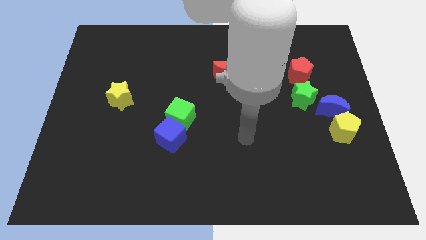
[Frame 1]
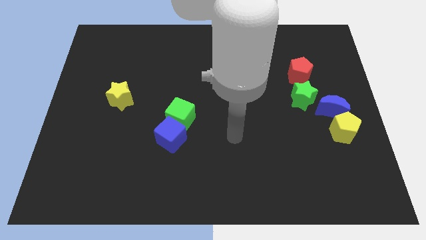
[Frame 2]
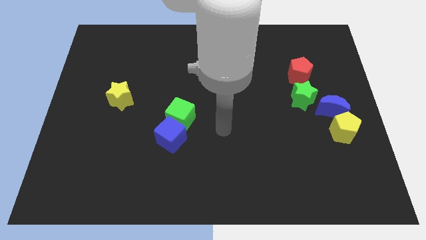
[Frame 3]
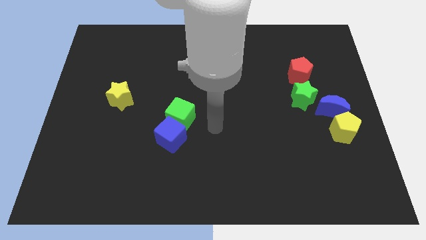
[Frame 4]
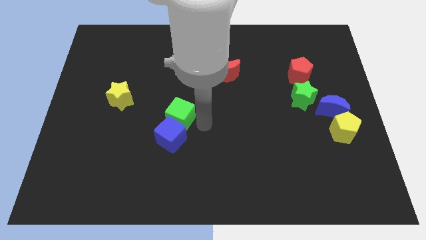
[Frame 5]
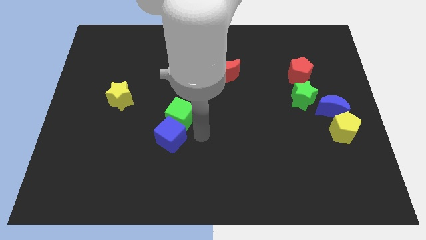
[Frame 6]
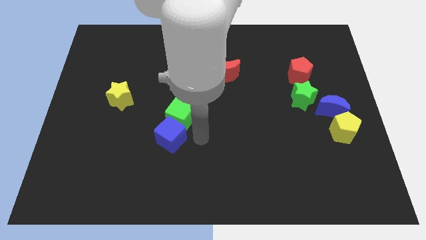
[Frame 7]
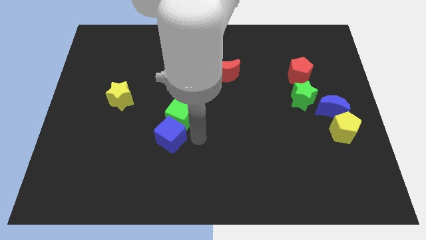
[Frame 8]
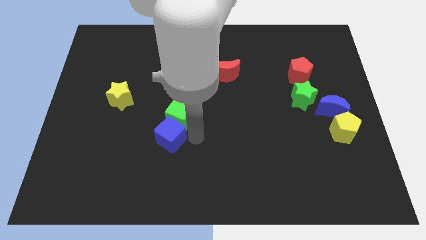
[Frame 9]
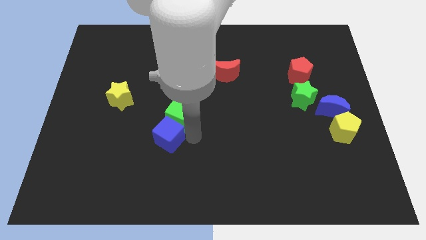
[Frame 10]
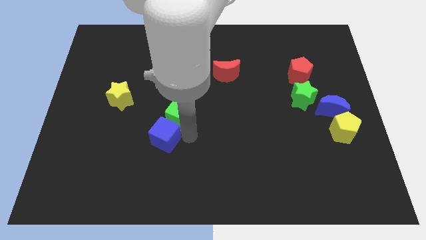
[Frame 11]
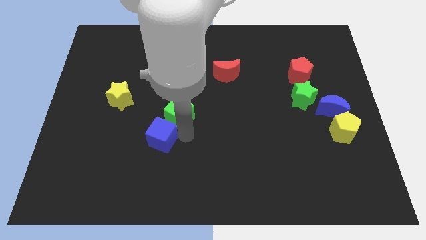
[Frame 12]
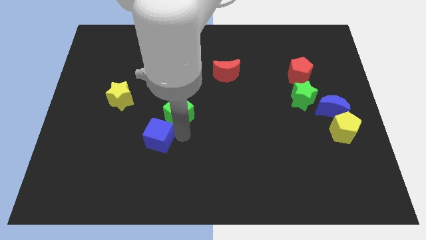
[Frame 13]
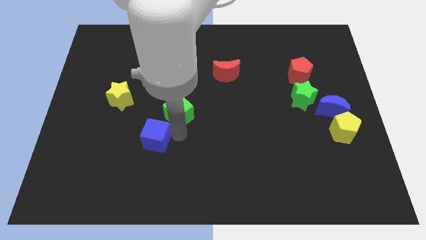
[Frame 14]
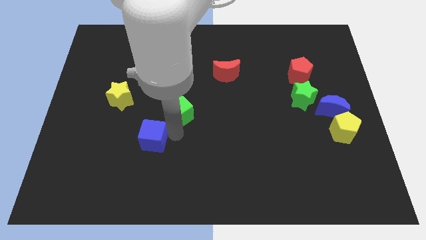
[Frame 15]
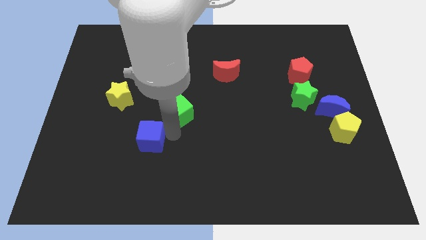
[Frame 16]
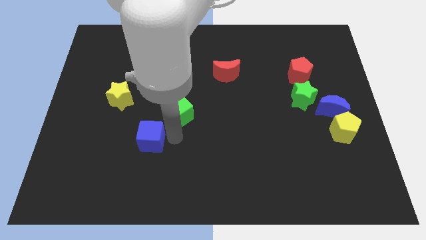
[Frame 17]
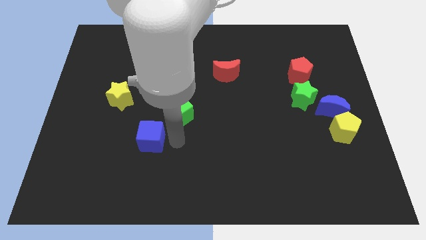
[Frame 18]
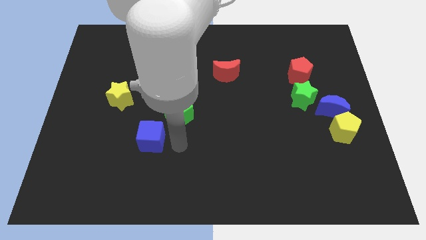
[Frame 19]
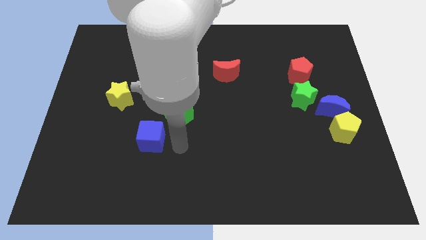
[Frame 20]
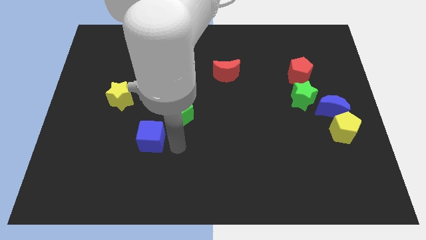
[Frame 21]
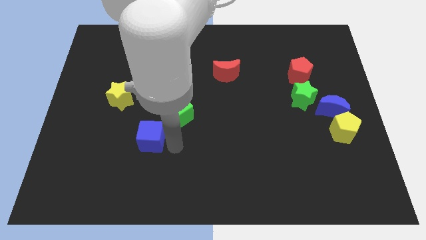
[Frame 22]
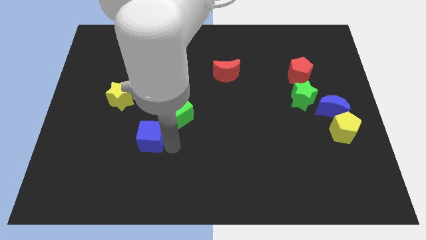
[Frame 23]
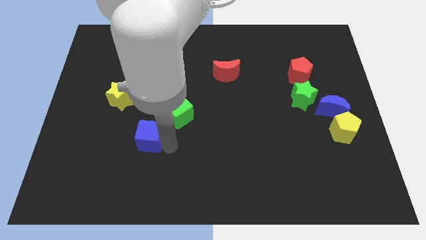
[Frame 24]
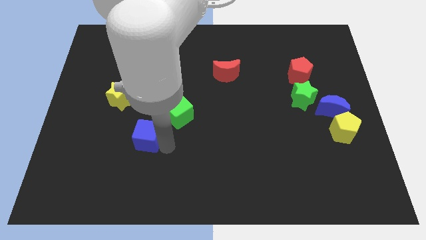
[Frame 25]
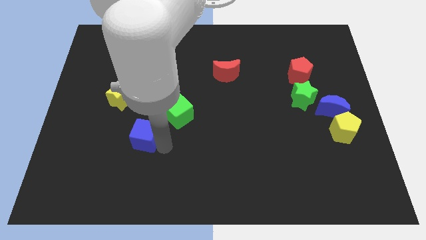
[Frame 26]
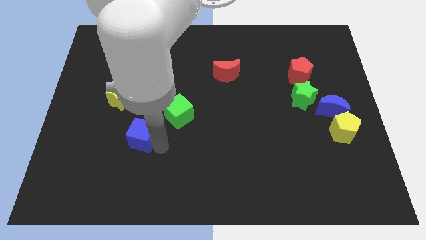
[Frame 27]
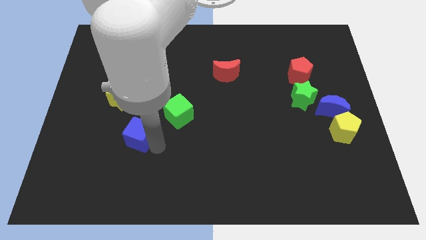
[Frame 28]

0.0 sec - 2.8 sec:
slide the blue cube a little bit to the left

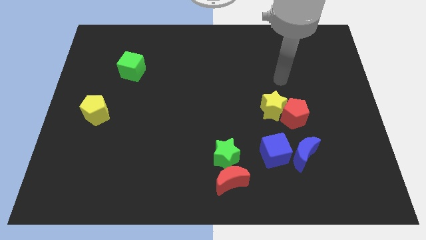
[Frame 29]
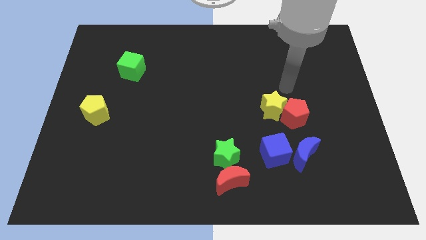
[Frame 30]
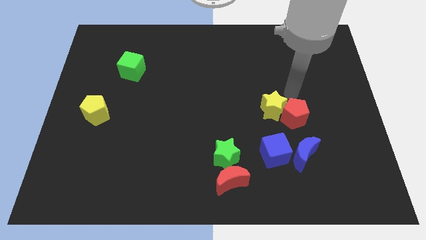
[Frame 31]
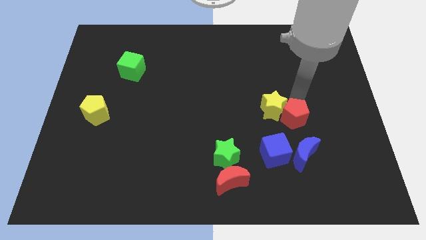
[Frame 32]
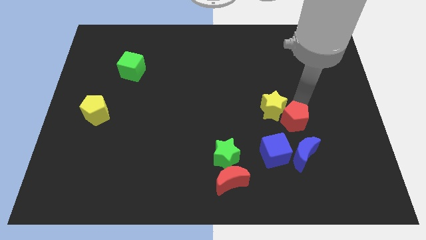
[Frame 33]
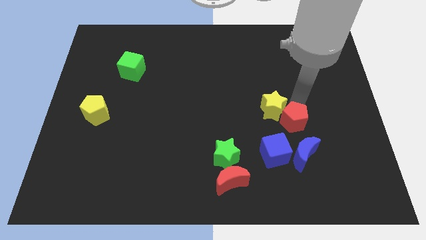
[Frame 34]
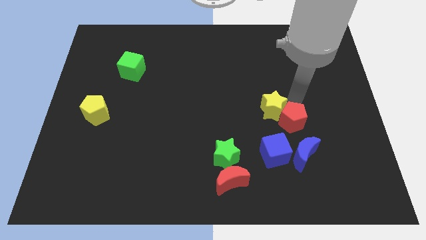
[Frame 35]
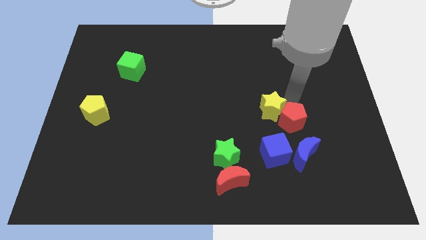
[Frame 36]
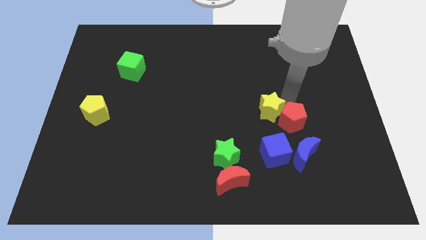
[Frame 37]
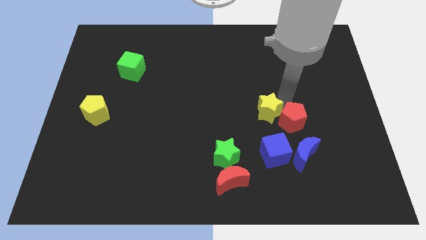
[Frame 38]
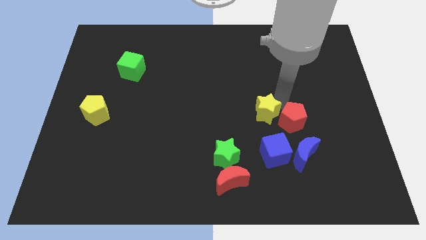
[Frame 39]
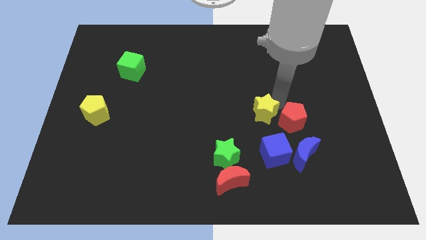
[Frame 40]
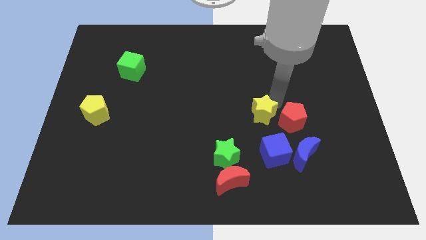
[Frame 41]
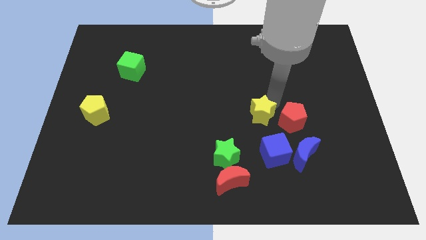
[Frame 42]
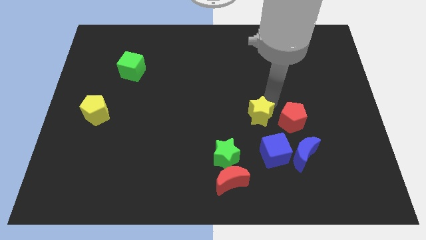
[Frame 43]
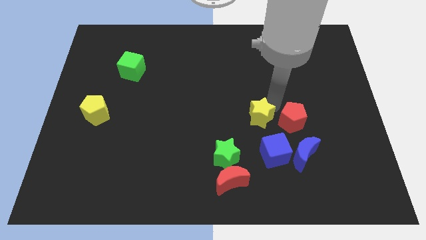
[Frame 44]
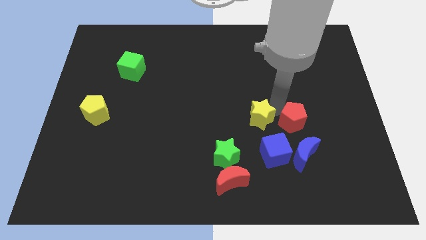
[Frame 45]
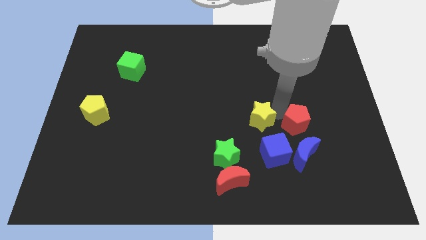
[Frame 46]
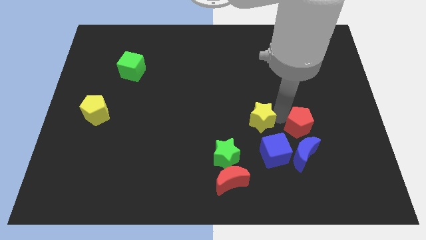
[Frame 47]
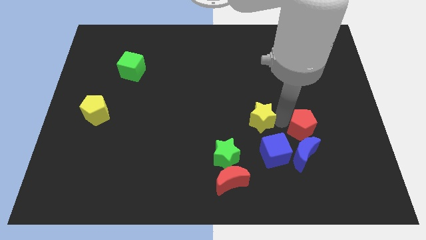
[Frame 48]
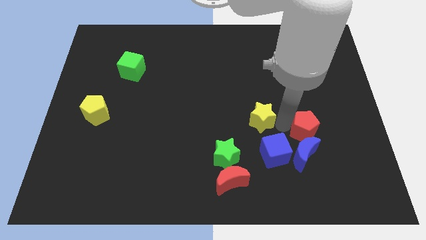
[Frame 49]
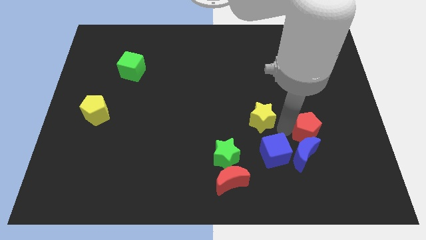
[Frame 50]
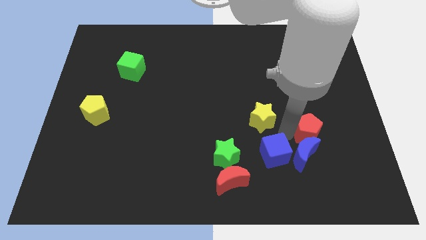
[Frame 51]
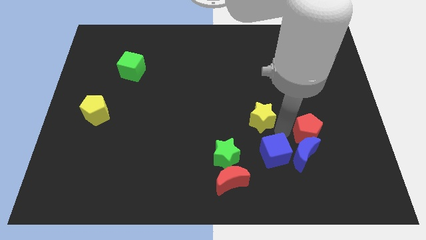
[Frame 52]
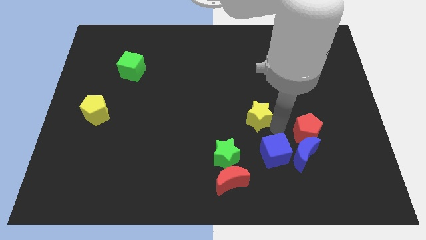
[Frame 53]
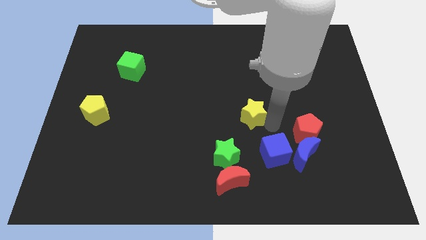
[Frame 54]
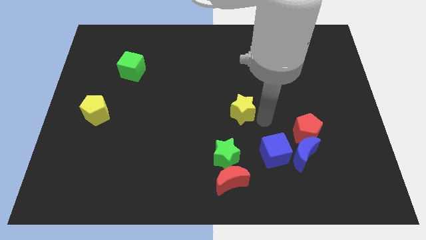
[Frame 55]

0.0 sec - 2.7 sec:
move the yellow star a little to the left

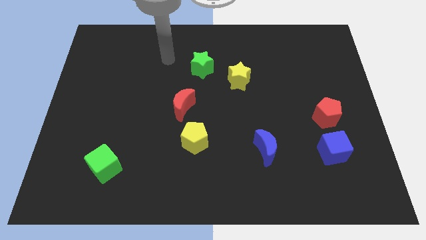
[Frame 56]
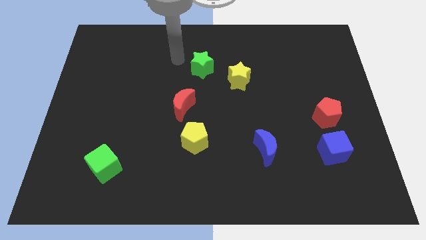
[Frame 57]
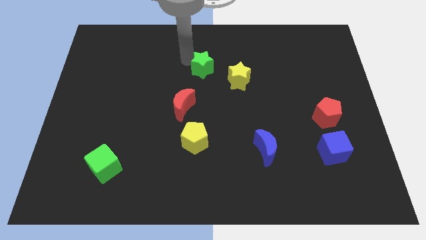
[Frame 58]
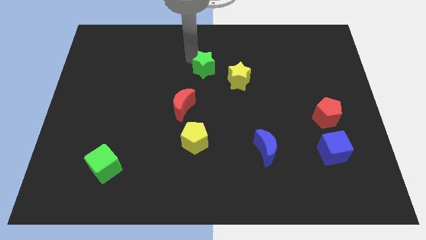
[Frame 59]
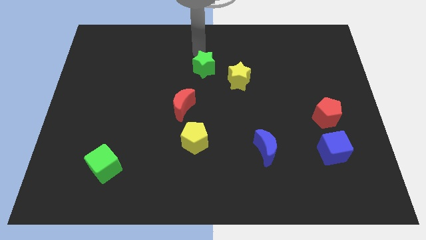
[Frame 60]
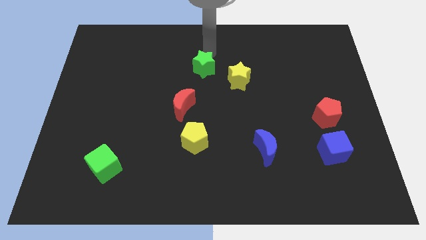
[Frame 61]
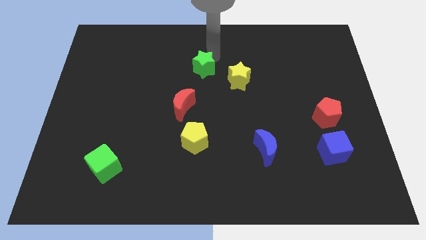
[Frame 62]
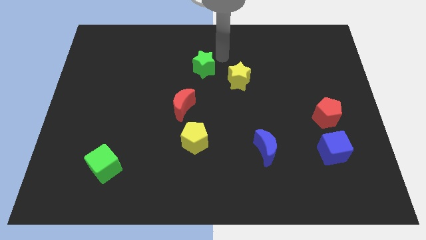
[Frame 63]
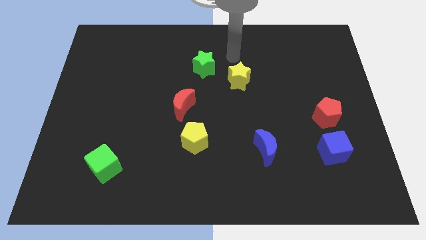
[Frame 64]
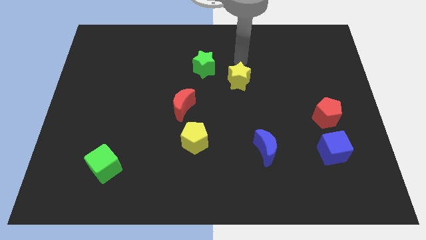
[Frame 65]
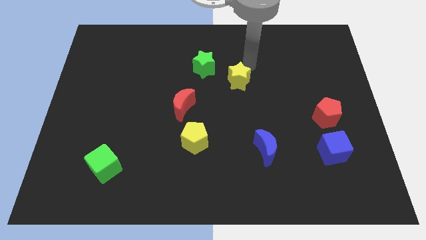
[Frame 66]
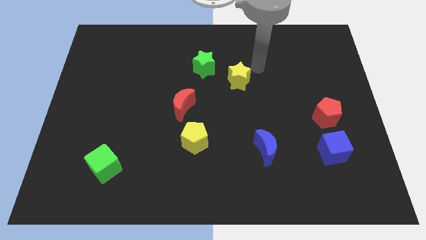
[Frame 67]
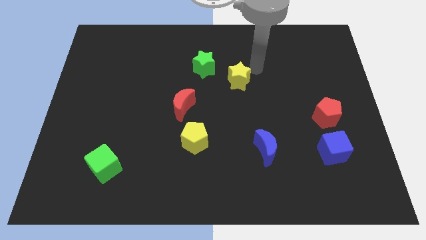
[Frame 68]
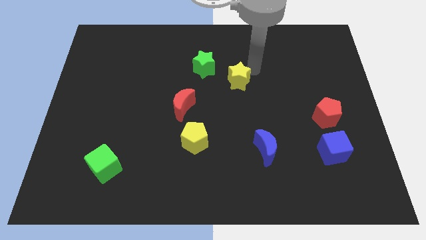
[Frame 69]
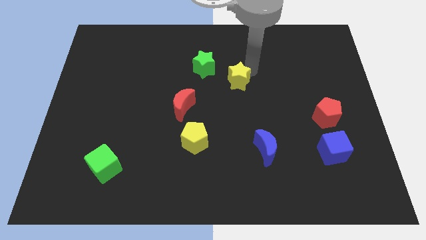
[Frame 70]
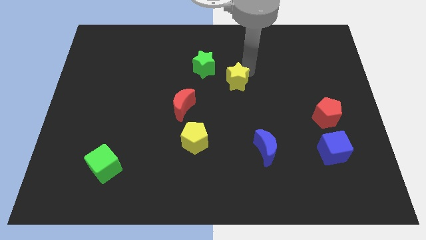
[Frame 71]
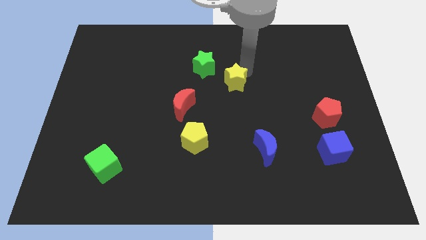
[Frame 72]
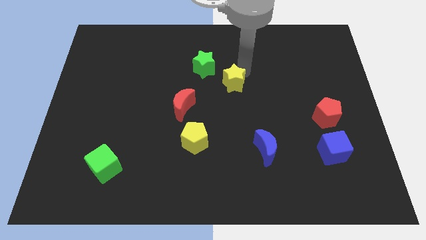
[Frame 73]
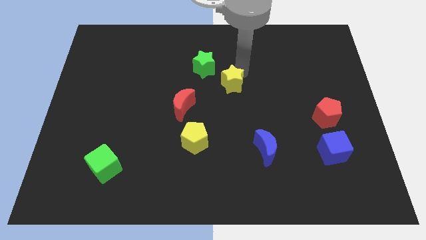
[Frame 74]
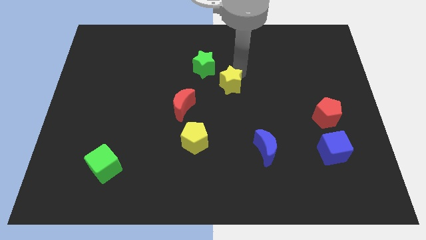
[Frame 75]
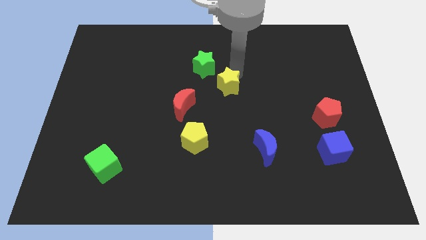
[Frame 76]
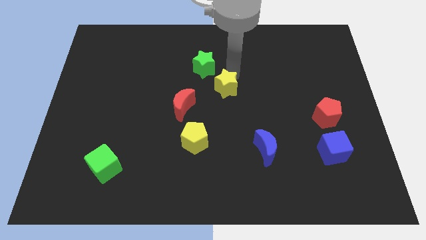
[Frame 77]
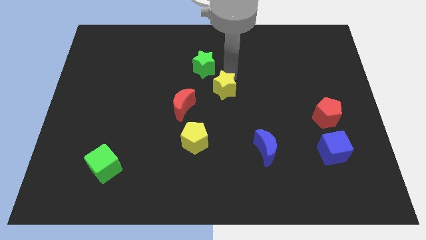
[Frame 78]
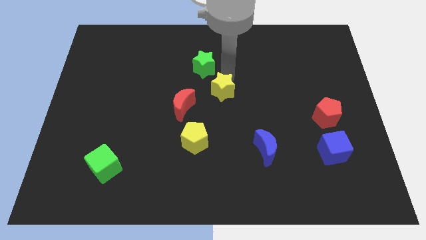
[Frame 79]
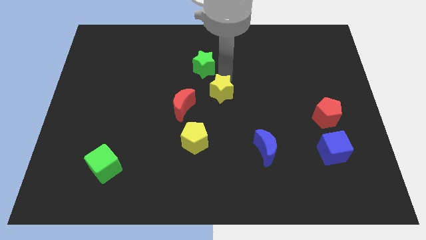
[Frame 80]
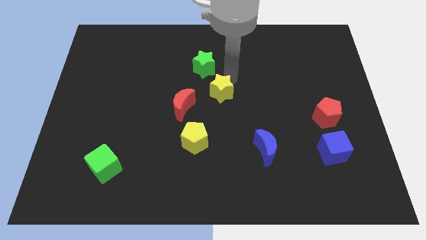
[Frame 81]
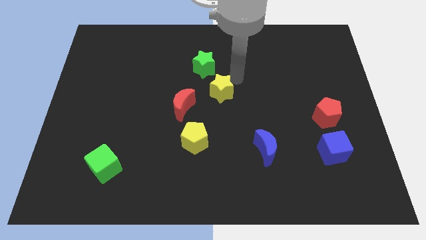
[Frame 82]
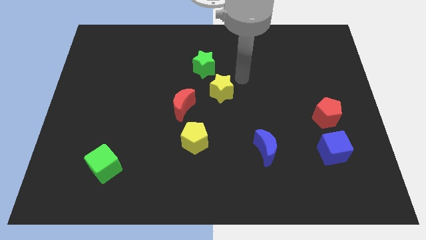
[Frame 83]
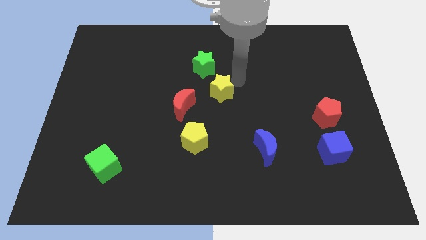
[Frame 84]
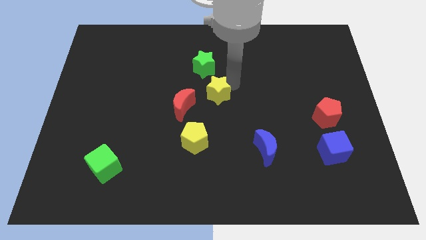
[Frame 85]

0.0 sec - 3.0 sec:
move the yellow star downwards and then left a bit
